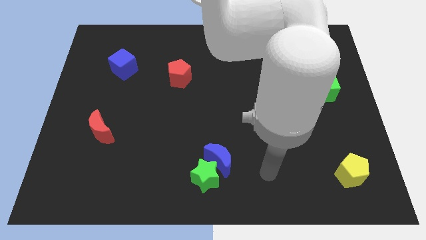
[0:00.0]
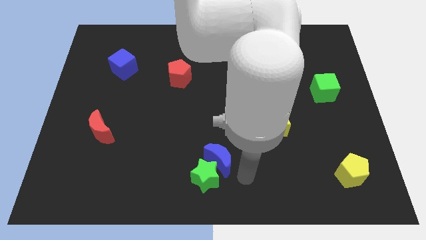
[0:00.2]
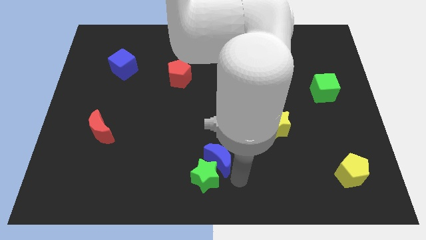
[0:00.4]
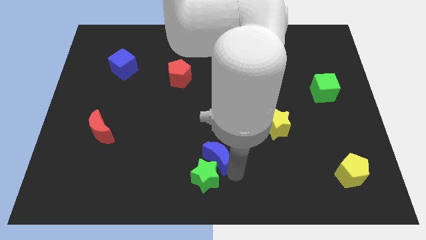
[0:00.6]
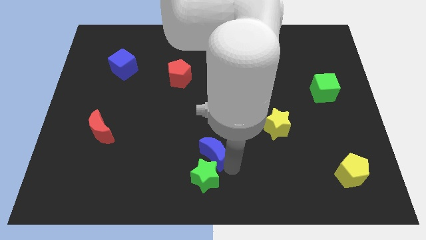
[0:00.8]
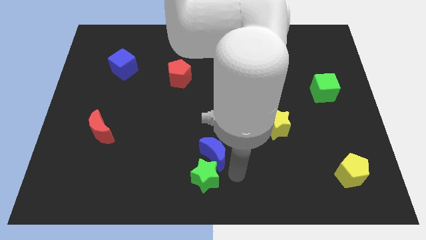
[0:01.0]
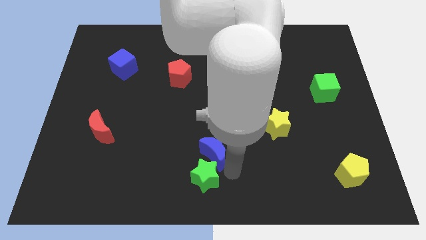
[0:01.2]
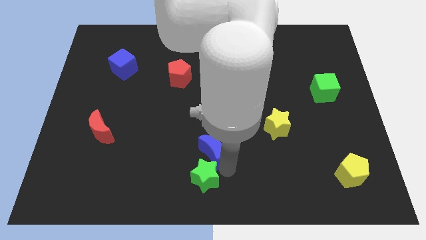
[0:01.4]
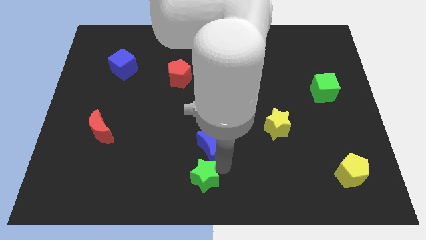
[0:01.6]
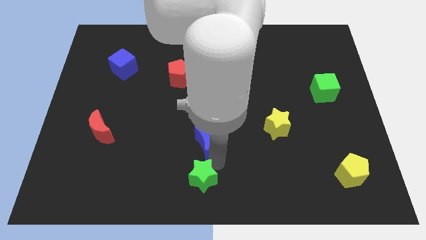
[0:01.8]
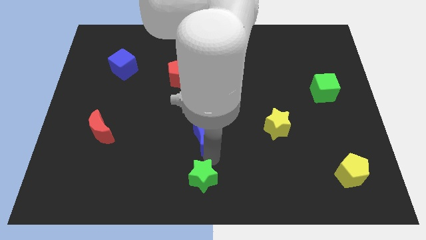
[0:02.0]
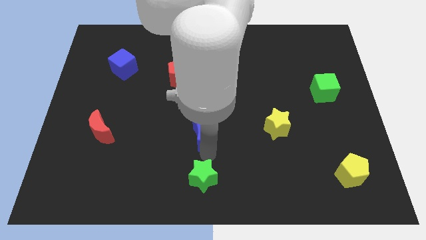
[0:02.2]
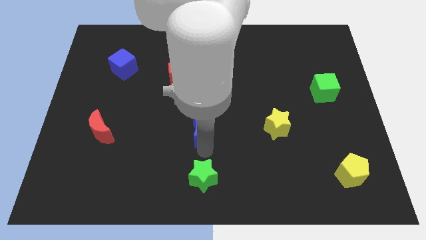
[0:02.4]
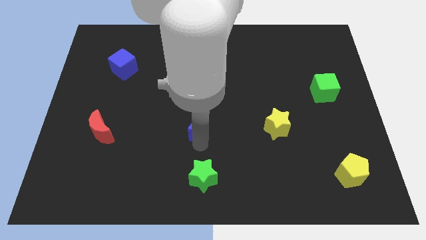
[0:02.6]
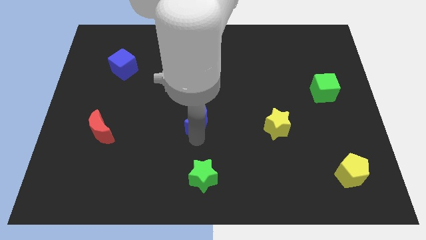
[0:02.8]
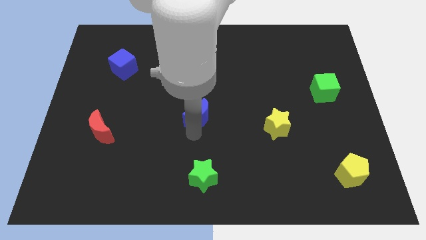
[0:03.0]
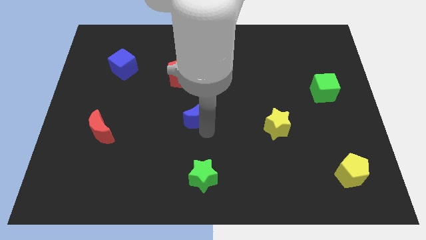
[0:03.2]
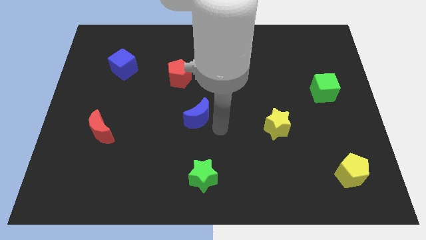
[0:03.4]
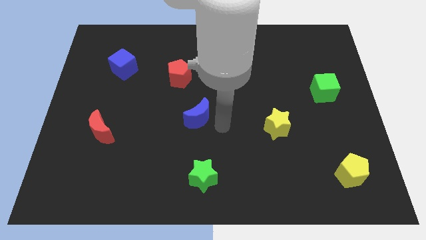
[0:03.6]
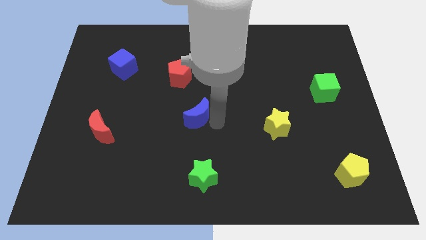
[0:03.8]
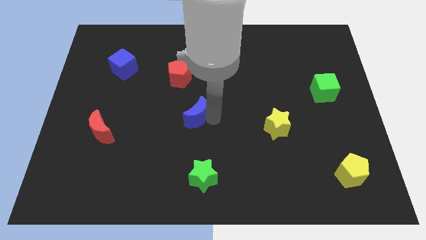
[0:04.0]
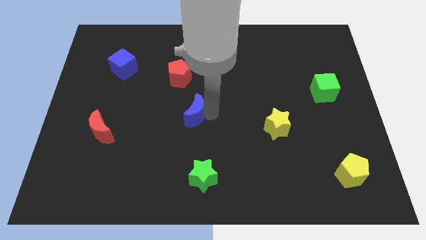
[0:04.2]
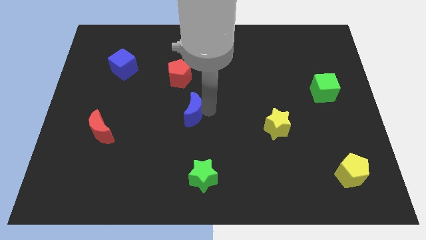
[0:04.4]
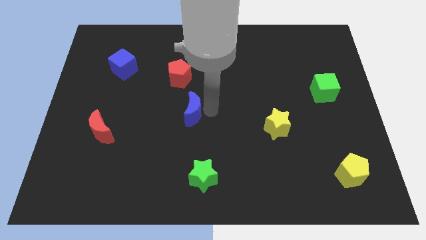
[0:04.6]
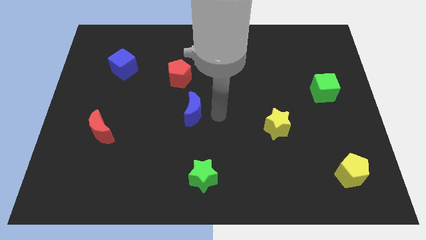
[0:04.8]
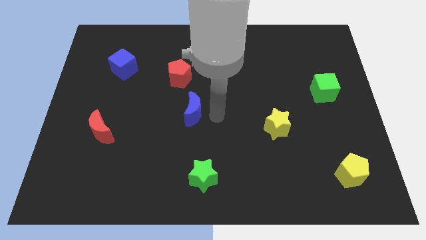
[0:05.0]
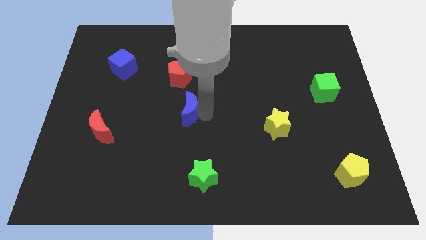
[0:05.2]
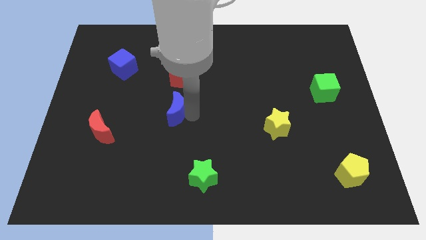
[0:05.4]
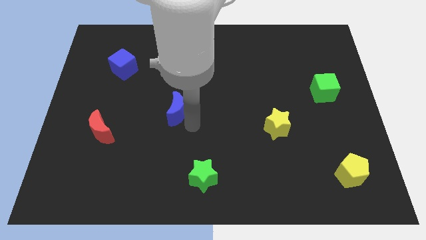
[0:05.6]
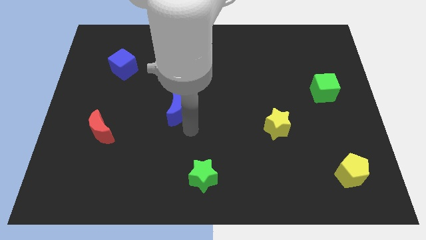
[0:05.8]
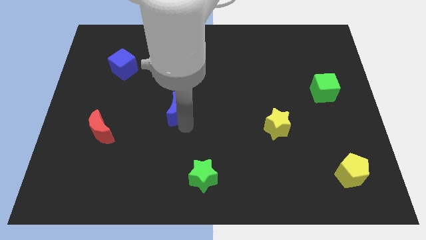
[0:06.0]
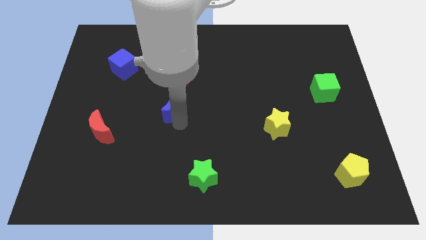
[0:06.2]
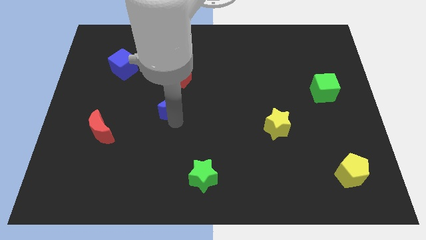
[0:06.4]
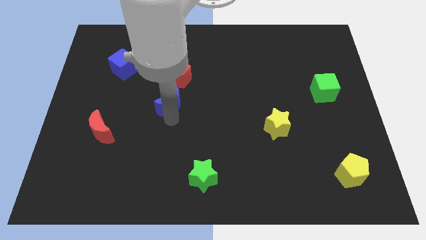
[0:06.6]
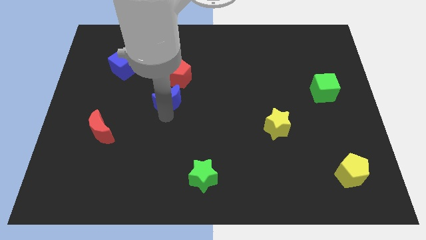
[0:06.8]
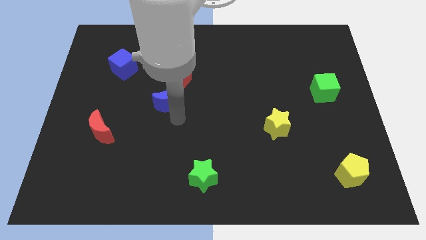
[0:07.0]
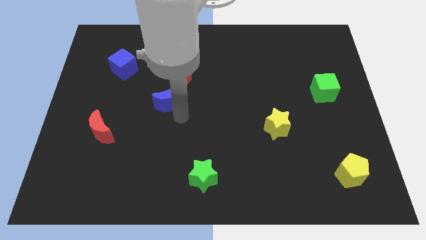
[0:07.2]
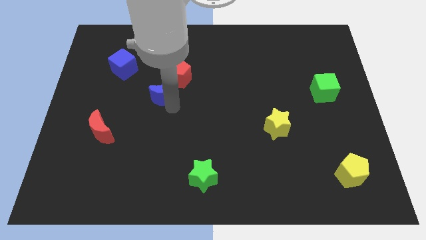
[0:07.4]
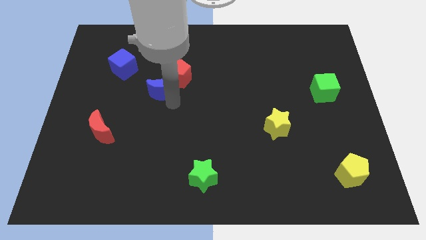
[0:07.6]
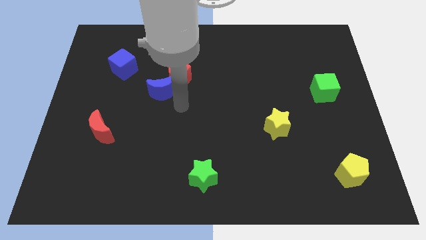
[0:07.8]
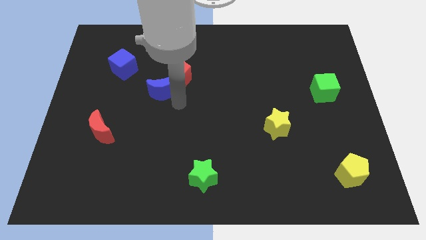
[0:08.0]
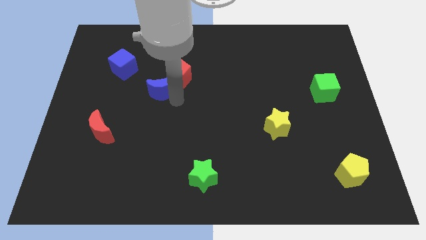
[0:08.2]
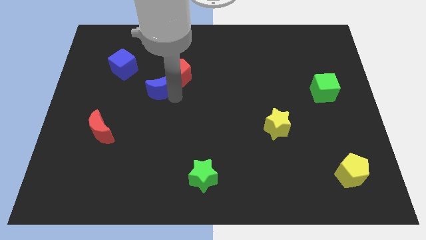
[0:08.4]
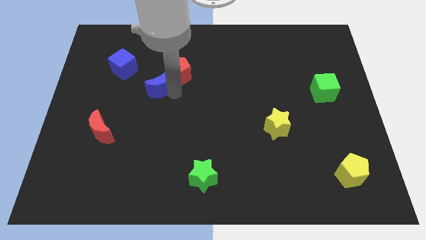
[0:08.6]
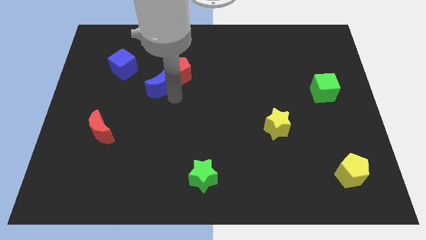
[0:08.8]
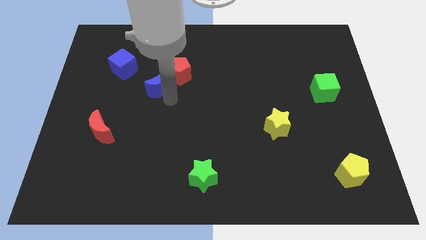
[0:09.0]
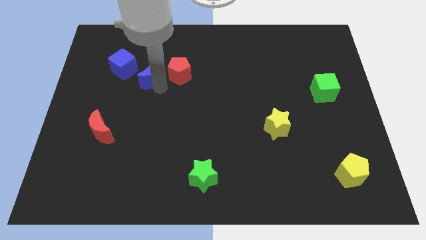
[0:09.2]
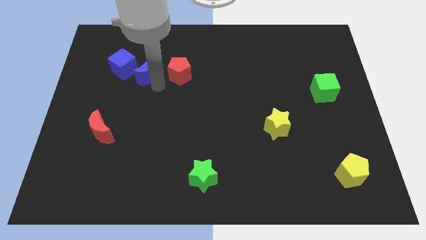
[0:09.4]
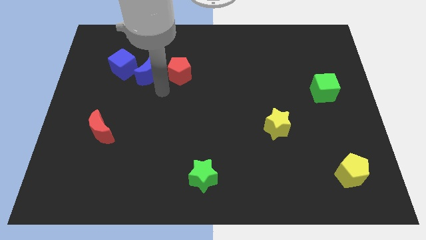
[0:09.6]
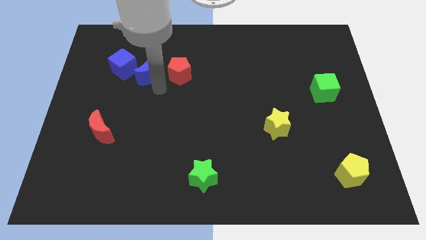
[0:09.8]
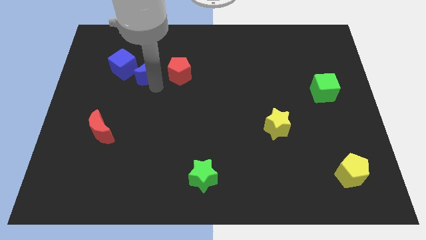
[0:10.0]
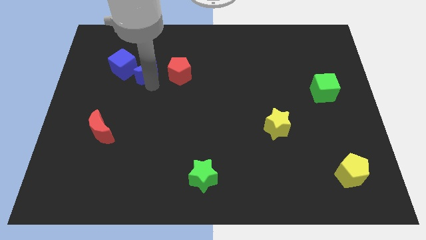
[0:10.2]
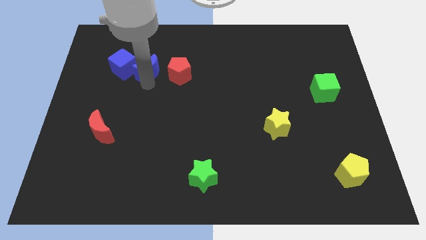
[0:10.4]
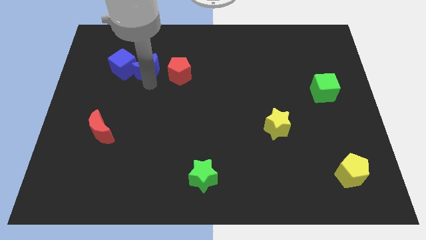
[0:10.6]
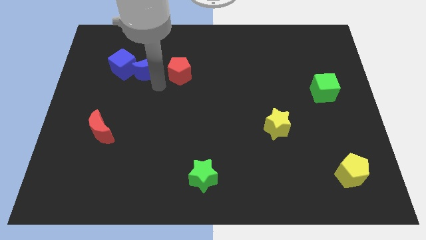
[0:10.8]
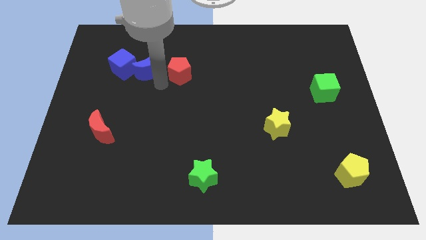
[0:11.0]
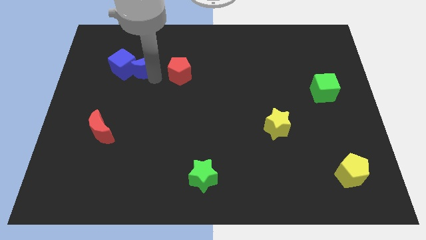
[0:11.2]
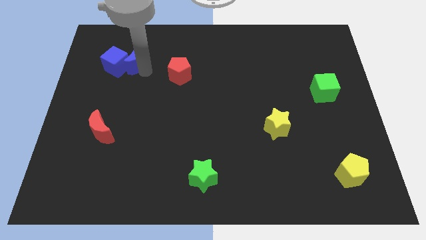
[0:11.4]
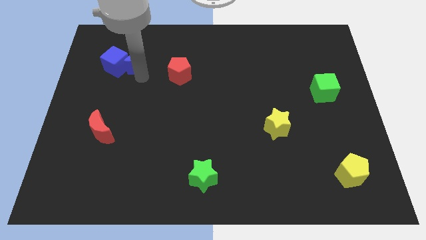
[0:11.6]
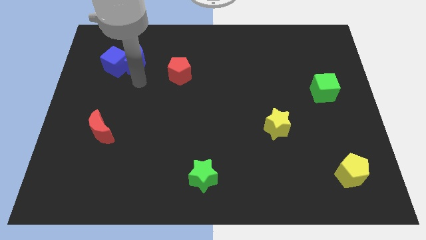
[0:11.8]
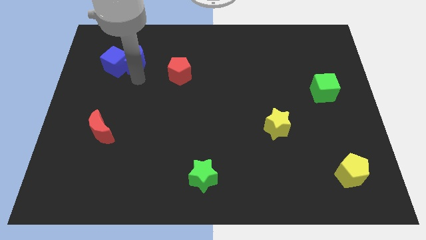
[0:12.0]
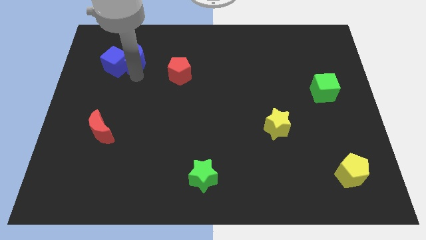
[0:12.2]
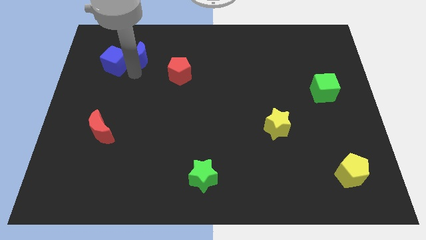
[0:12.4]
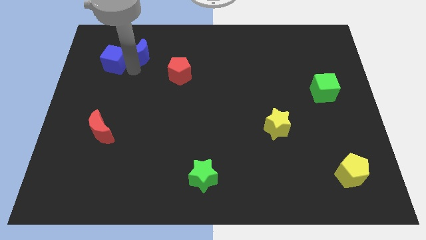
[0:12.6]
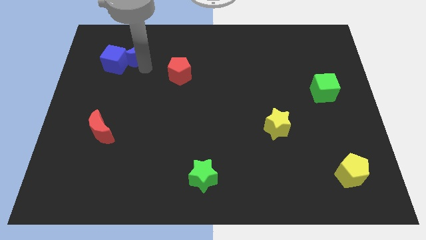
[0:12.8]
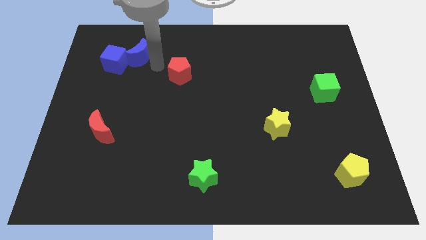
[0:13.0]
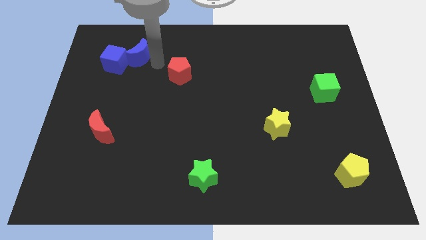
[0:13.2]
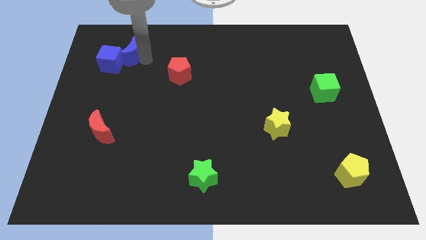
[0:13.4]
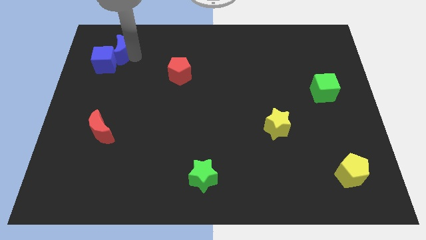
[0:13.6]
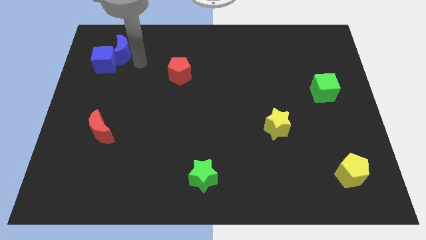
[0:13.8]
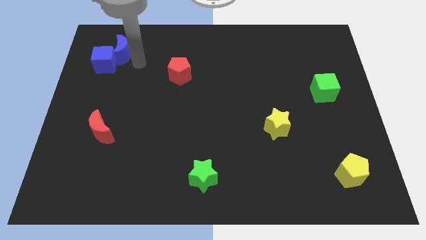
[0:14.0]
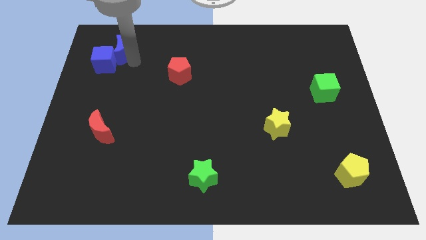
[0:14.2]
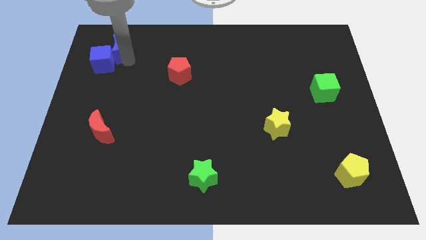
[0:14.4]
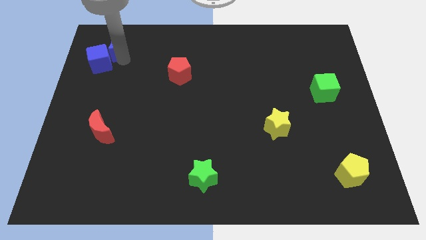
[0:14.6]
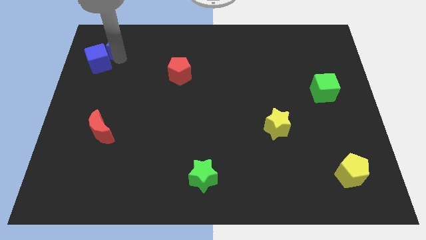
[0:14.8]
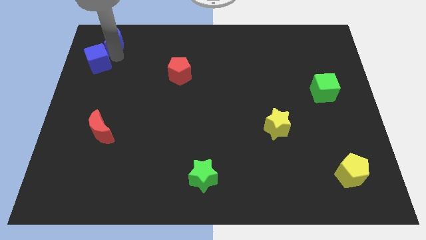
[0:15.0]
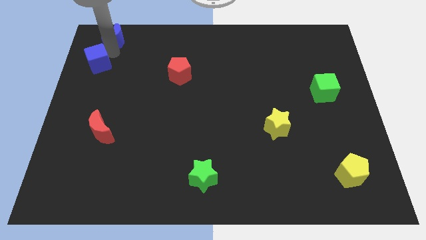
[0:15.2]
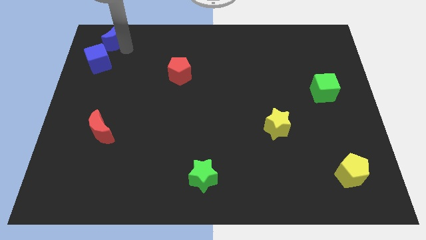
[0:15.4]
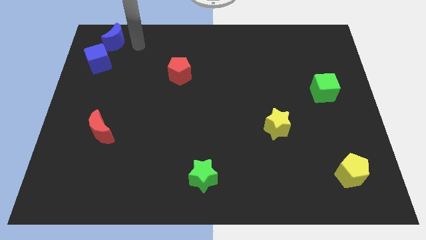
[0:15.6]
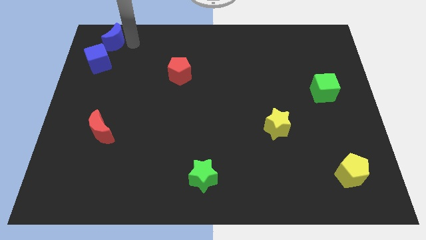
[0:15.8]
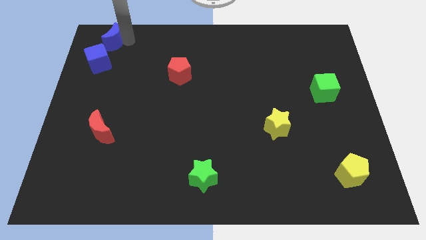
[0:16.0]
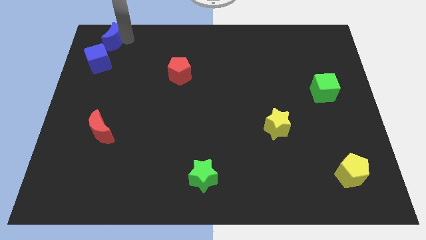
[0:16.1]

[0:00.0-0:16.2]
slide the blue moon to the top left
